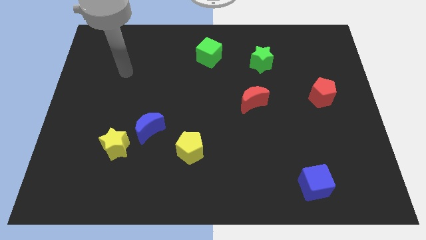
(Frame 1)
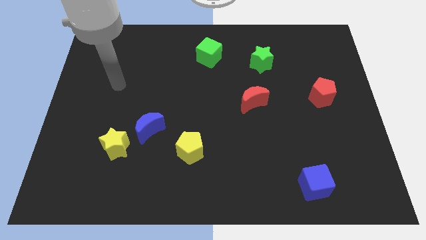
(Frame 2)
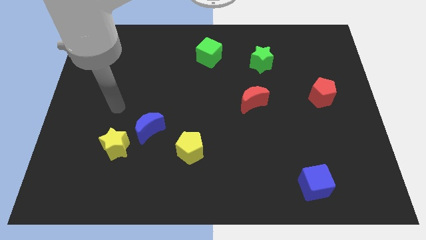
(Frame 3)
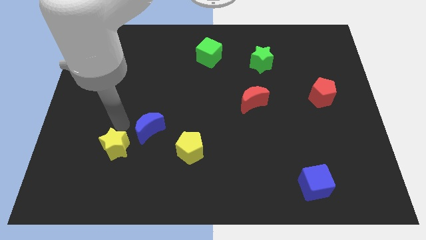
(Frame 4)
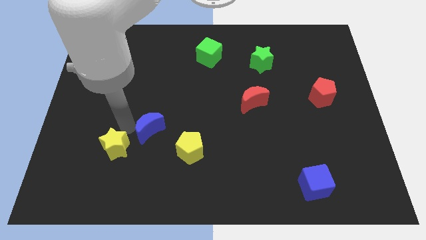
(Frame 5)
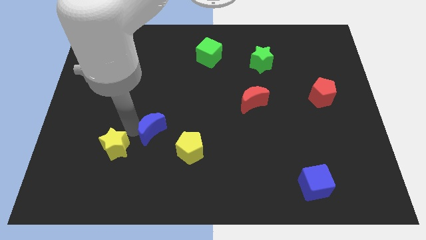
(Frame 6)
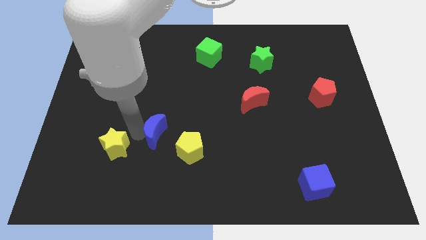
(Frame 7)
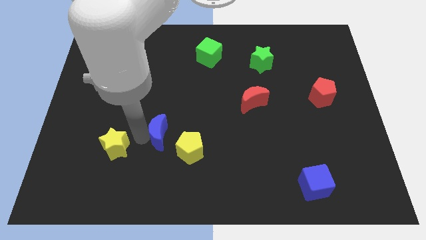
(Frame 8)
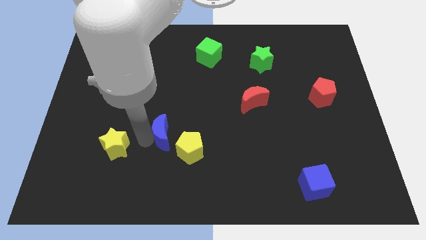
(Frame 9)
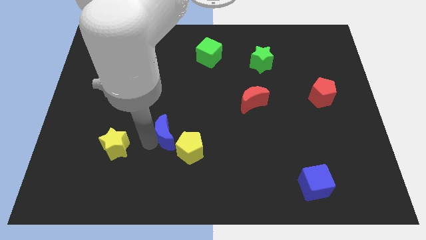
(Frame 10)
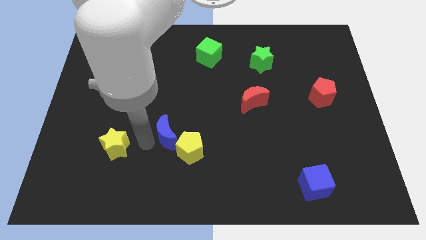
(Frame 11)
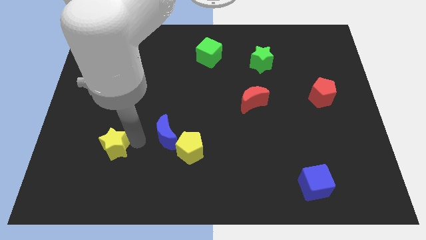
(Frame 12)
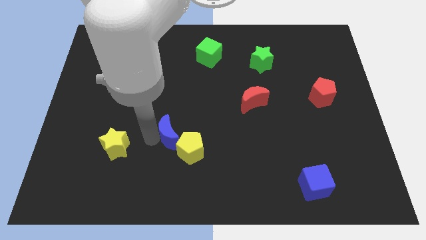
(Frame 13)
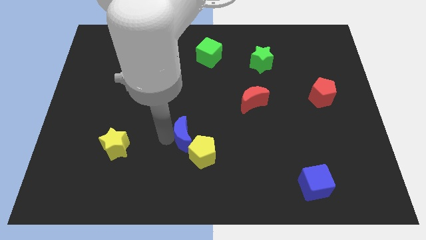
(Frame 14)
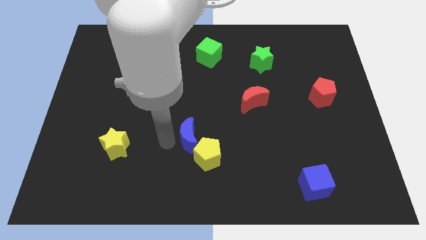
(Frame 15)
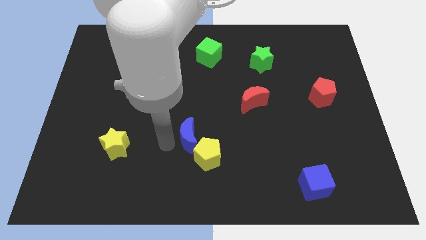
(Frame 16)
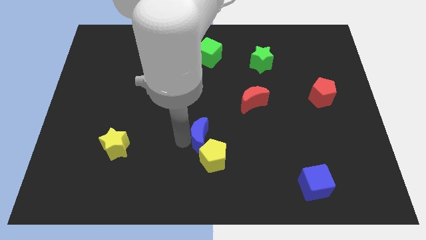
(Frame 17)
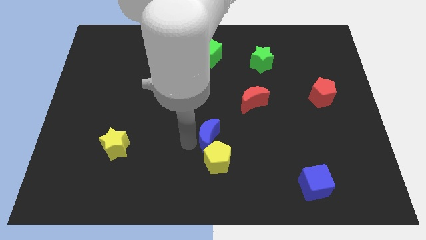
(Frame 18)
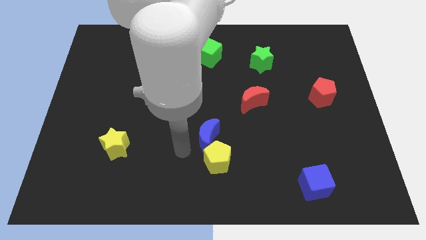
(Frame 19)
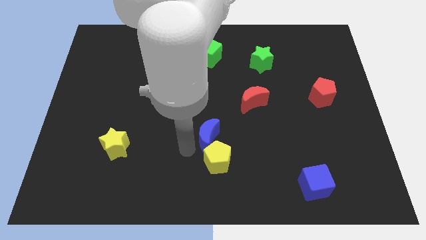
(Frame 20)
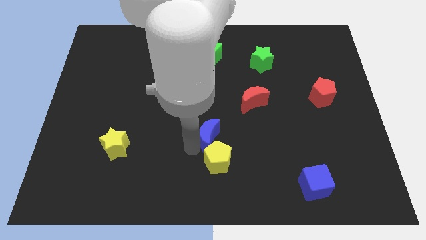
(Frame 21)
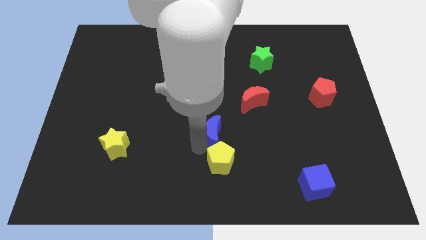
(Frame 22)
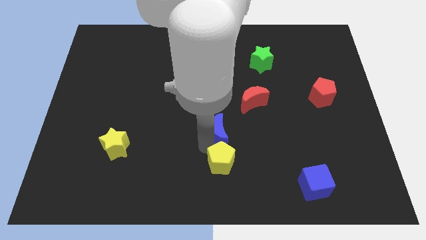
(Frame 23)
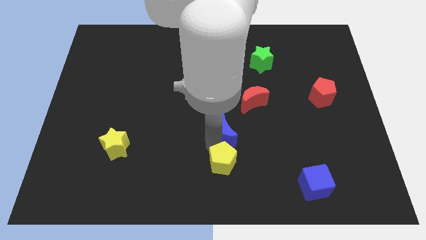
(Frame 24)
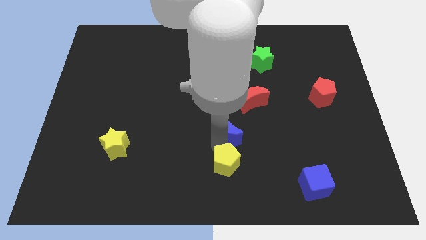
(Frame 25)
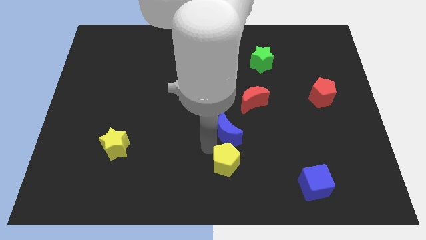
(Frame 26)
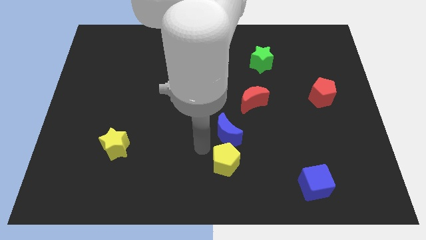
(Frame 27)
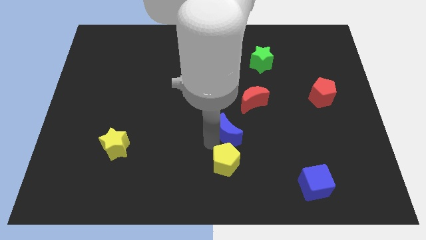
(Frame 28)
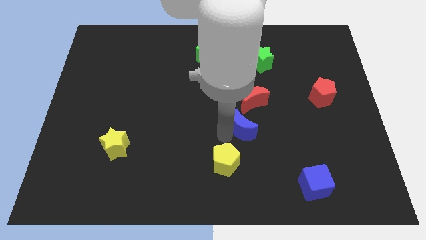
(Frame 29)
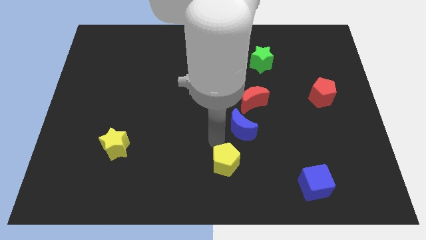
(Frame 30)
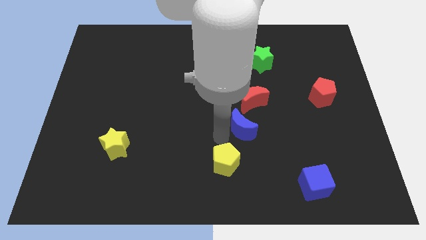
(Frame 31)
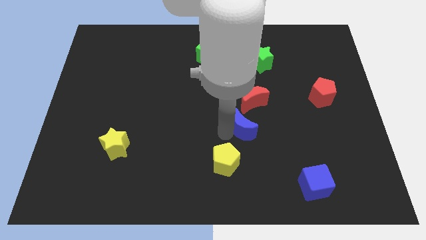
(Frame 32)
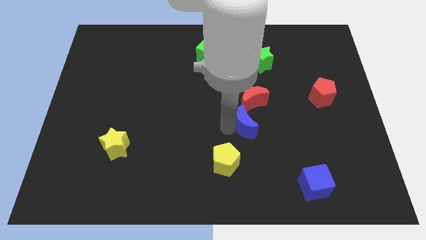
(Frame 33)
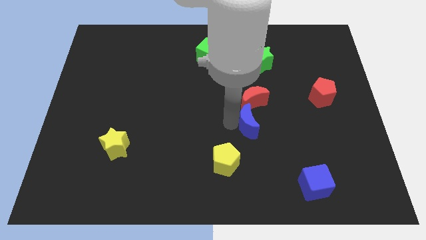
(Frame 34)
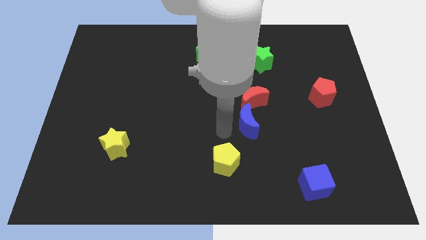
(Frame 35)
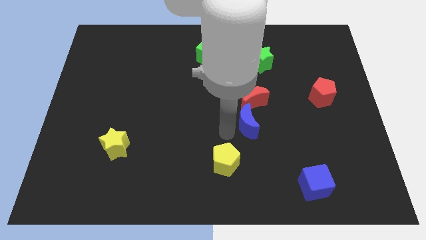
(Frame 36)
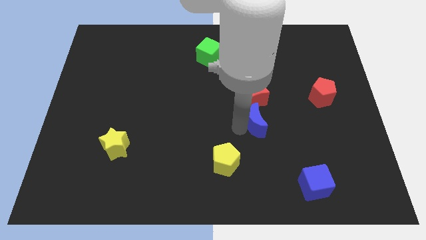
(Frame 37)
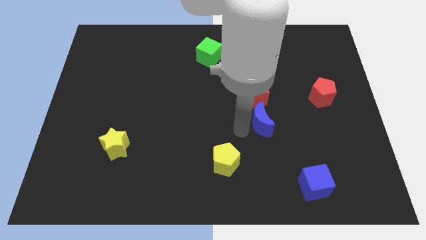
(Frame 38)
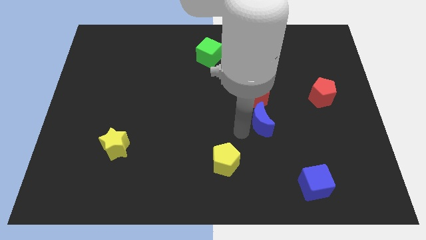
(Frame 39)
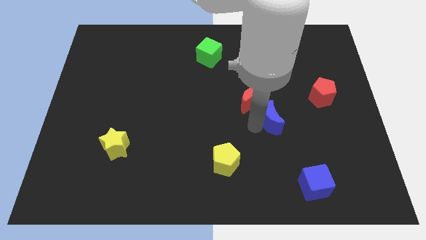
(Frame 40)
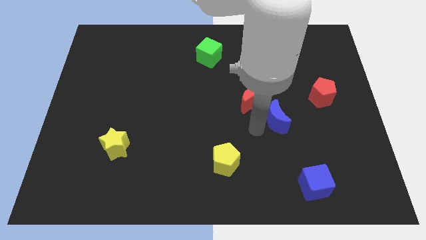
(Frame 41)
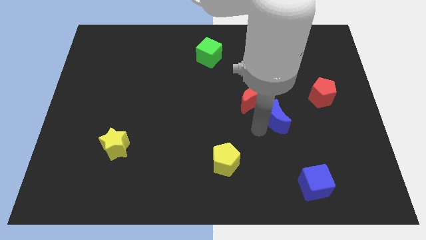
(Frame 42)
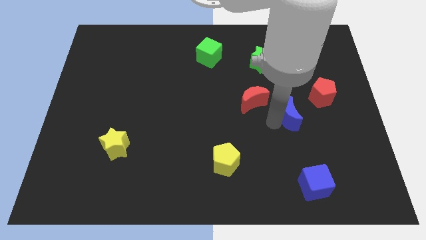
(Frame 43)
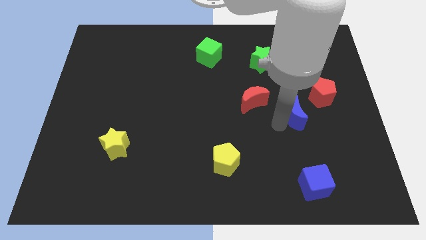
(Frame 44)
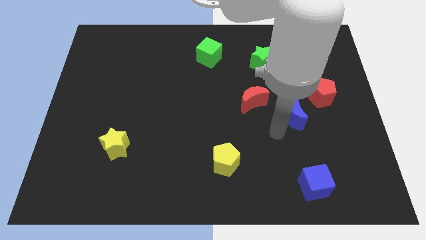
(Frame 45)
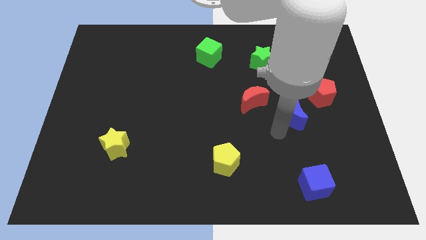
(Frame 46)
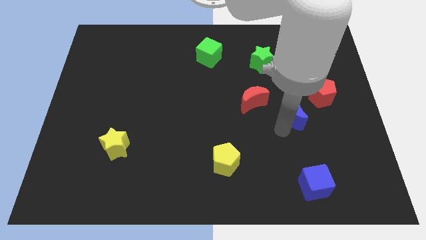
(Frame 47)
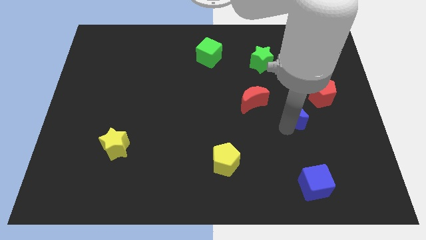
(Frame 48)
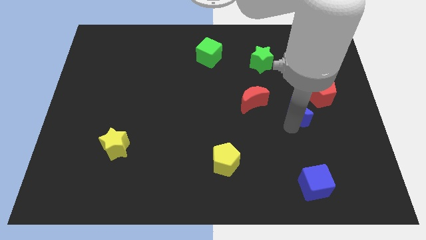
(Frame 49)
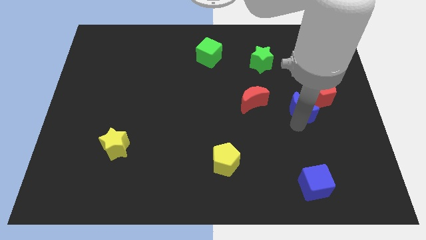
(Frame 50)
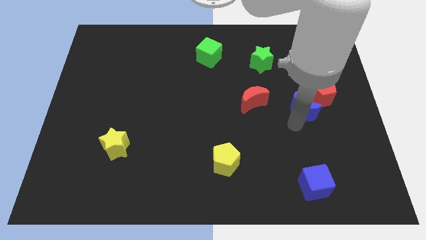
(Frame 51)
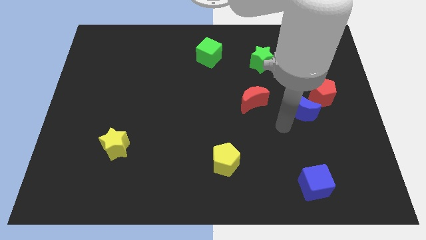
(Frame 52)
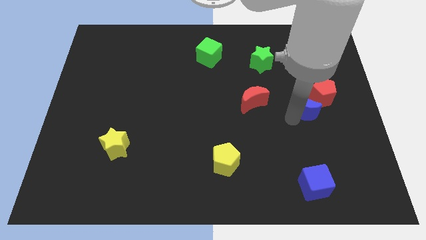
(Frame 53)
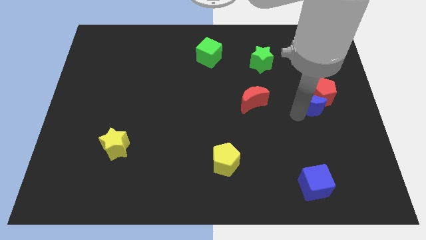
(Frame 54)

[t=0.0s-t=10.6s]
slide the blue moon next to the red pentagon

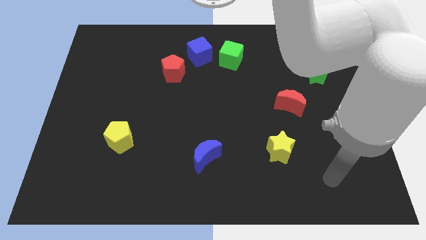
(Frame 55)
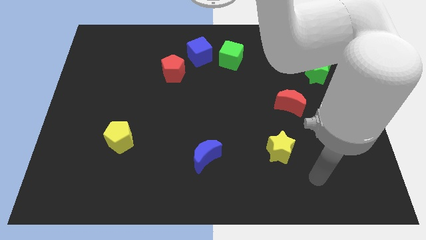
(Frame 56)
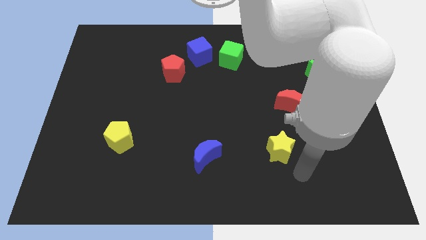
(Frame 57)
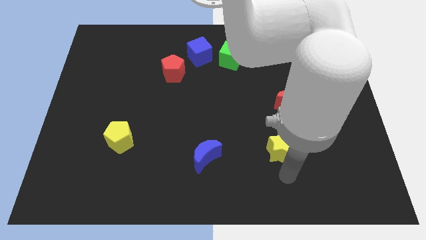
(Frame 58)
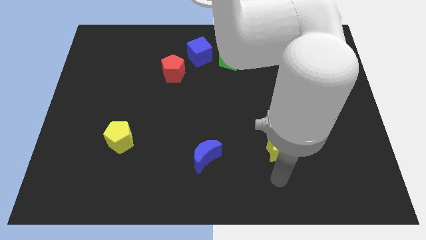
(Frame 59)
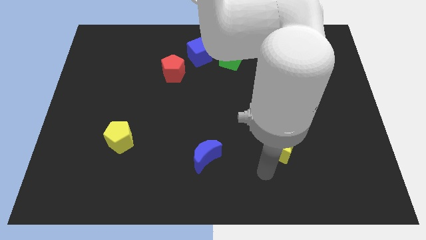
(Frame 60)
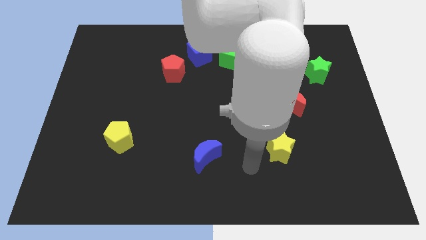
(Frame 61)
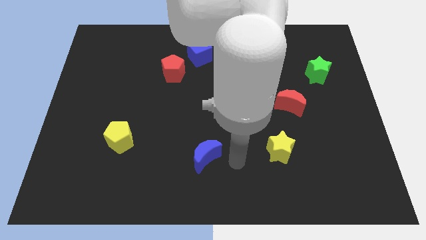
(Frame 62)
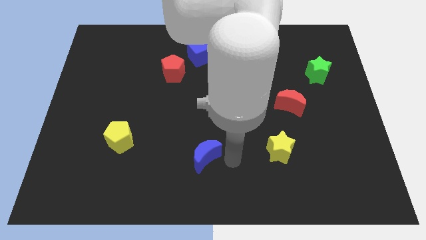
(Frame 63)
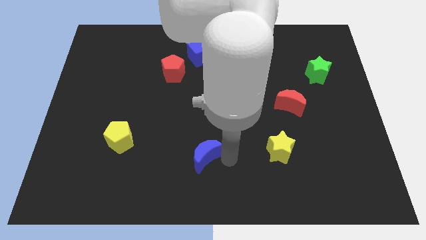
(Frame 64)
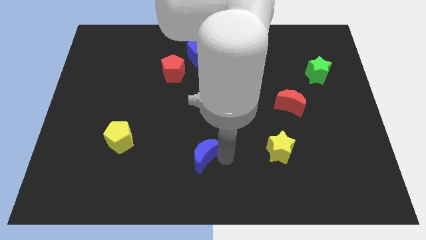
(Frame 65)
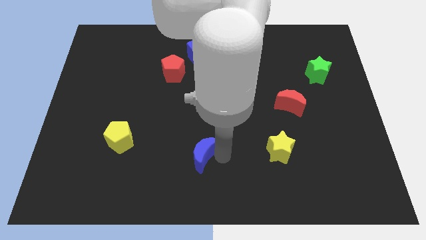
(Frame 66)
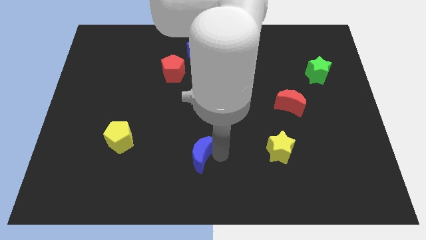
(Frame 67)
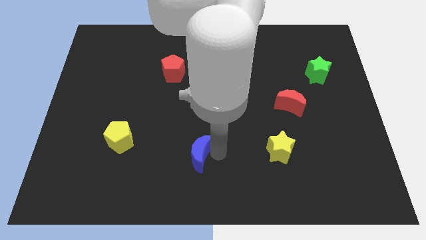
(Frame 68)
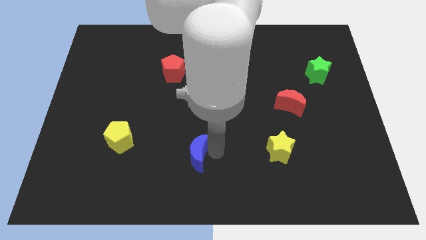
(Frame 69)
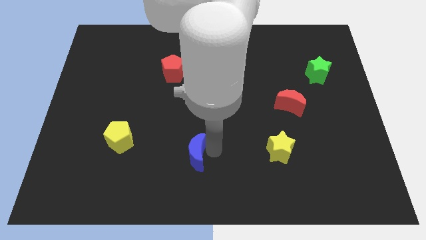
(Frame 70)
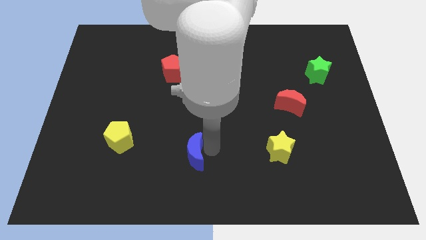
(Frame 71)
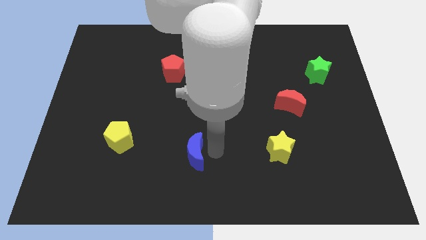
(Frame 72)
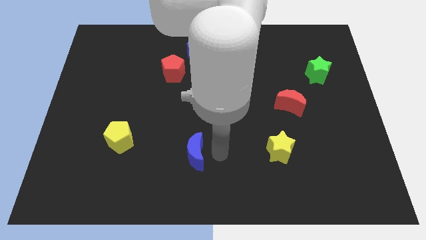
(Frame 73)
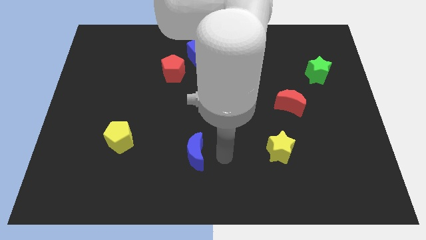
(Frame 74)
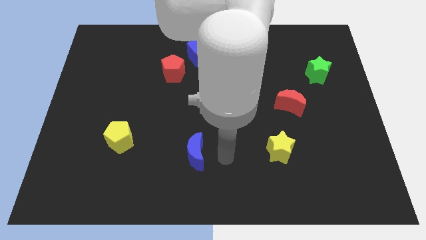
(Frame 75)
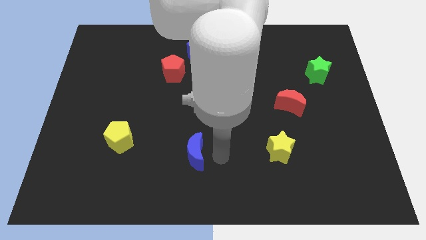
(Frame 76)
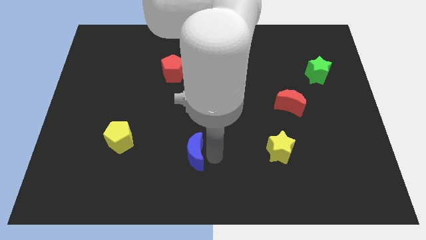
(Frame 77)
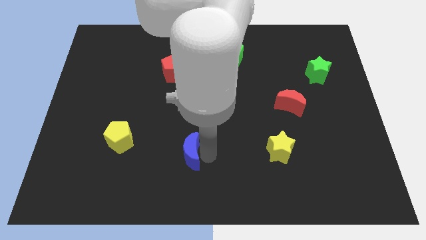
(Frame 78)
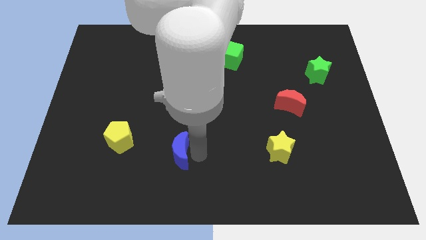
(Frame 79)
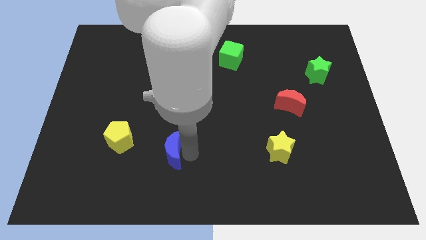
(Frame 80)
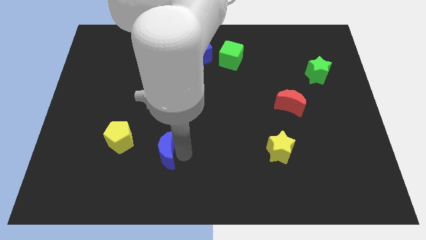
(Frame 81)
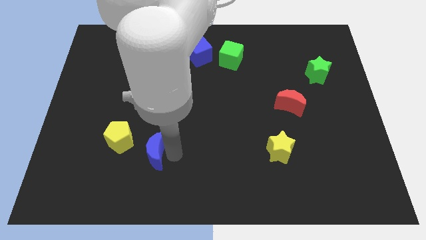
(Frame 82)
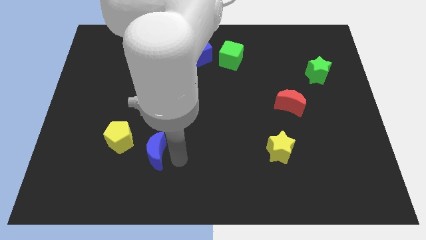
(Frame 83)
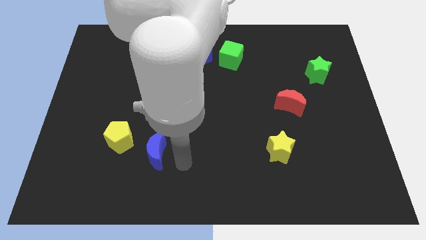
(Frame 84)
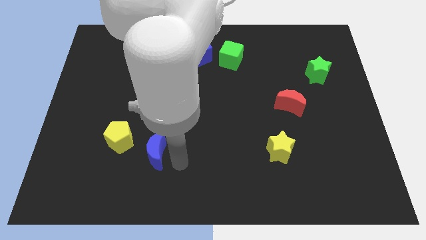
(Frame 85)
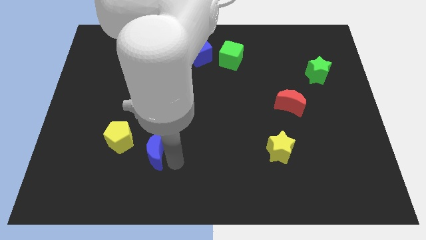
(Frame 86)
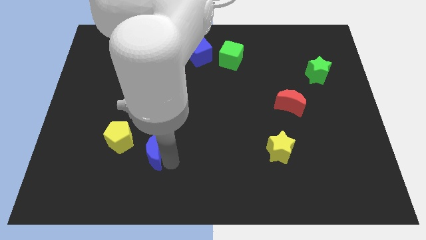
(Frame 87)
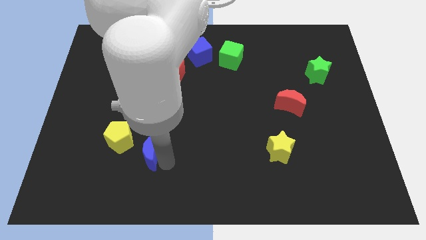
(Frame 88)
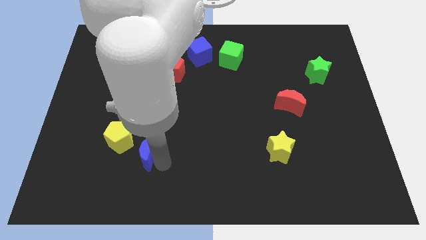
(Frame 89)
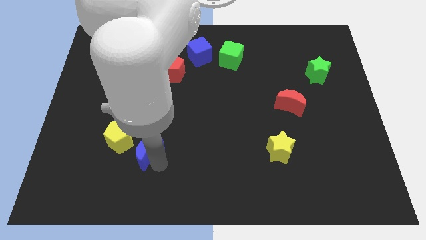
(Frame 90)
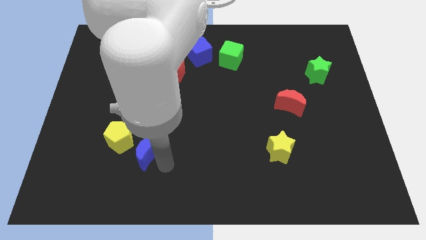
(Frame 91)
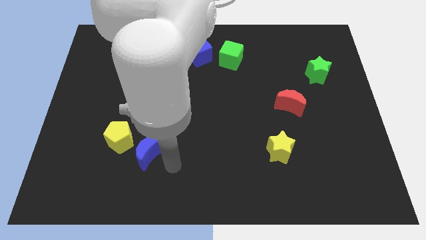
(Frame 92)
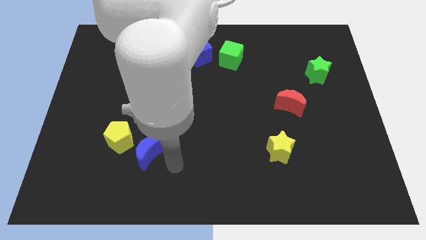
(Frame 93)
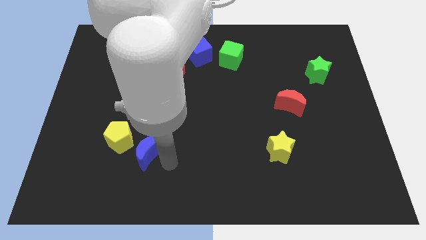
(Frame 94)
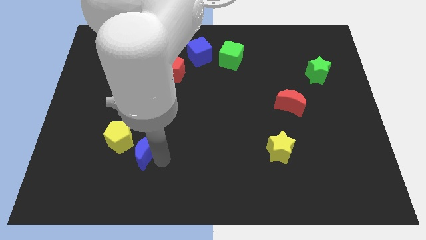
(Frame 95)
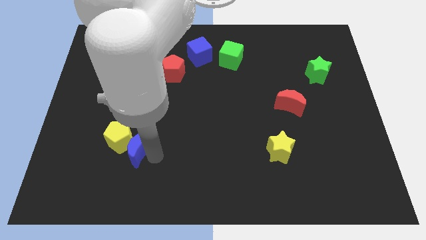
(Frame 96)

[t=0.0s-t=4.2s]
move the blue moon next to the yellow pentagon
